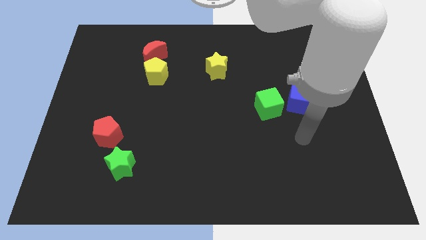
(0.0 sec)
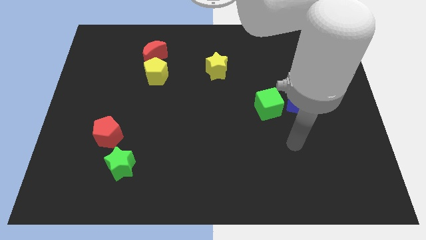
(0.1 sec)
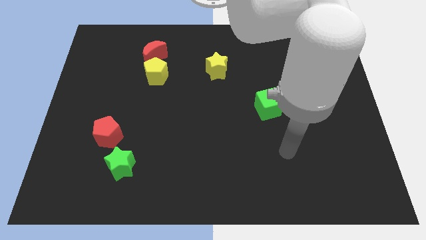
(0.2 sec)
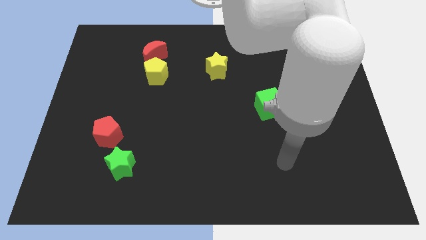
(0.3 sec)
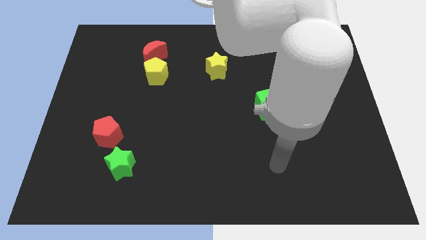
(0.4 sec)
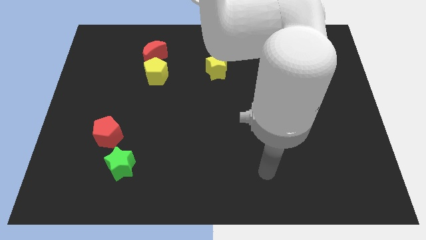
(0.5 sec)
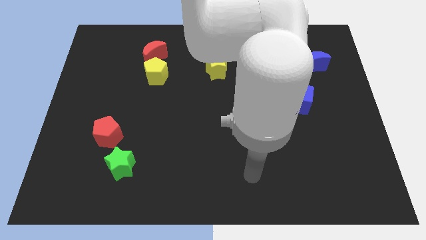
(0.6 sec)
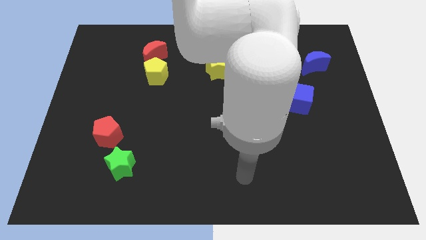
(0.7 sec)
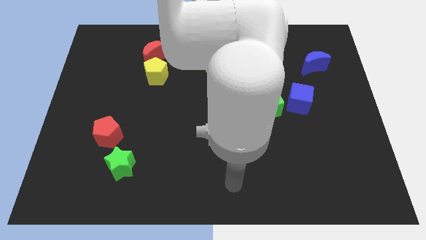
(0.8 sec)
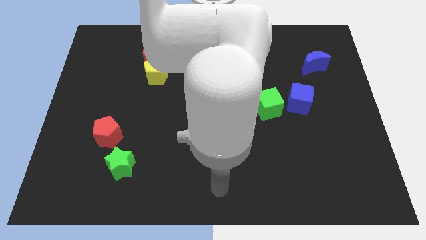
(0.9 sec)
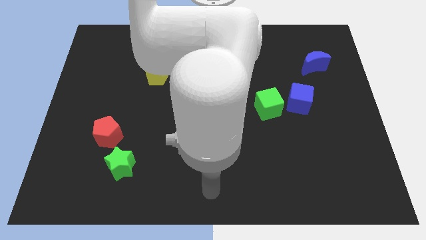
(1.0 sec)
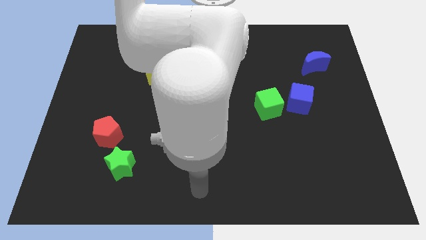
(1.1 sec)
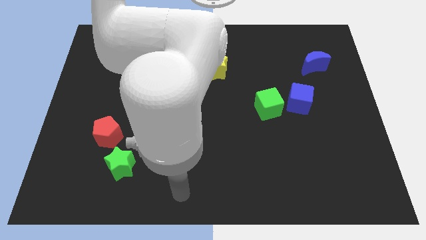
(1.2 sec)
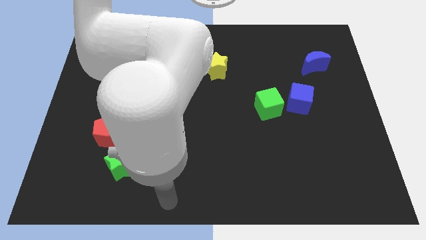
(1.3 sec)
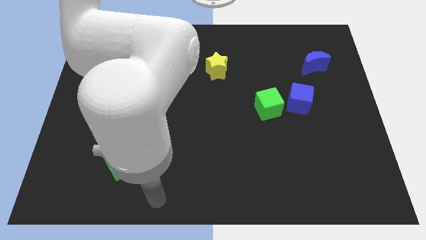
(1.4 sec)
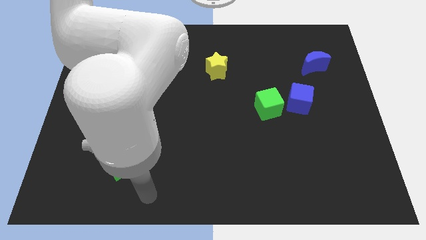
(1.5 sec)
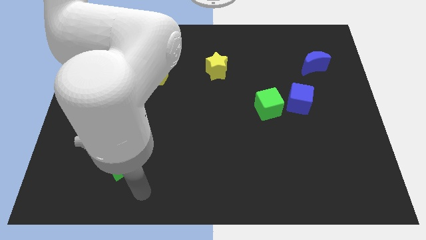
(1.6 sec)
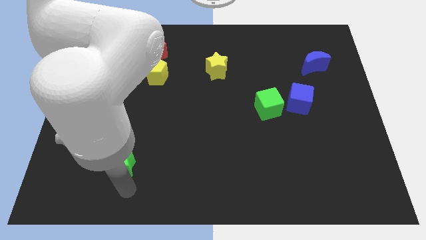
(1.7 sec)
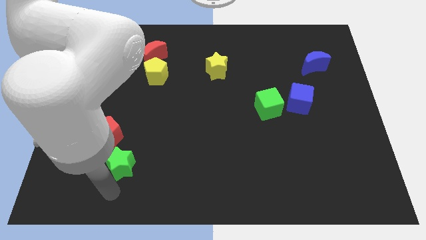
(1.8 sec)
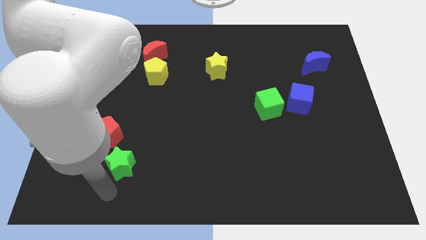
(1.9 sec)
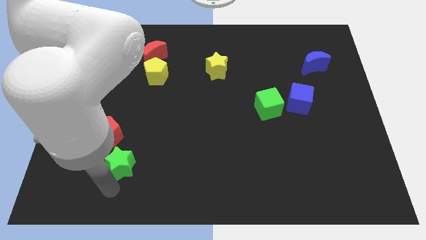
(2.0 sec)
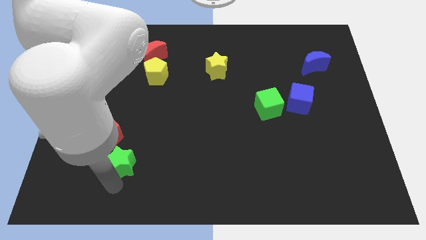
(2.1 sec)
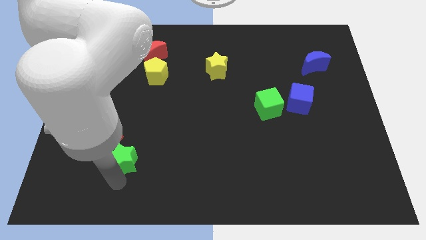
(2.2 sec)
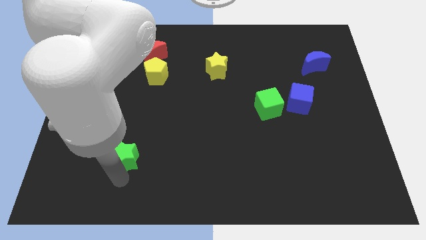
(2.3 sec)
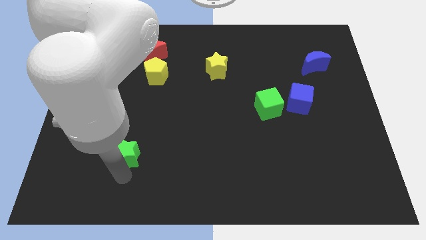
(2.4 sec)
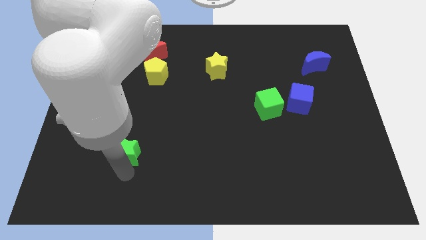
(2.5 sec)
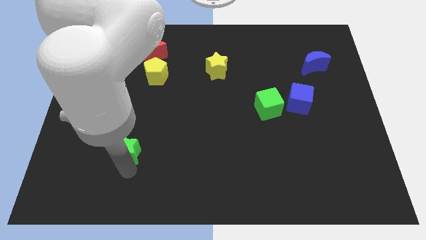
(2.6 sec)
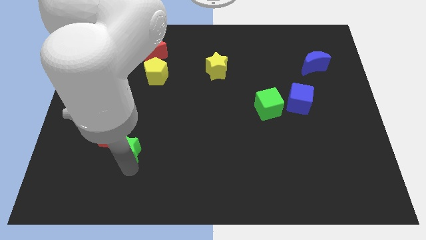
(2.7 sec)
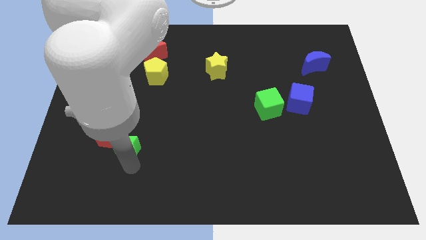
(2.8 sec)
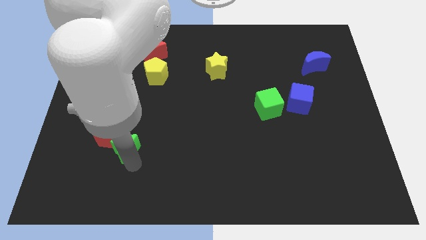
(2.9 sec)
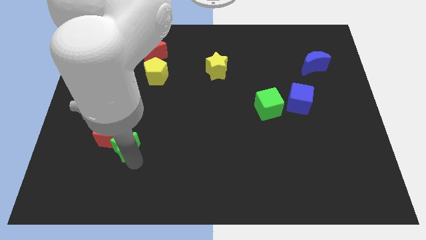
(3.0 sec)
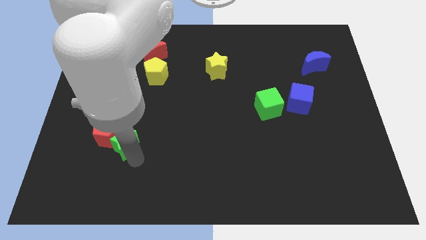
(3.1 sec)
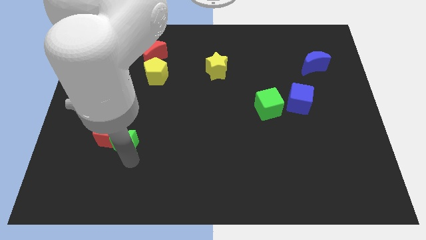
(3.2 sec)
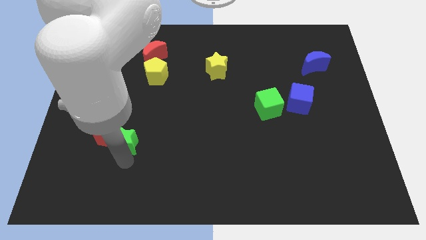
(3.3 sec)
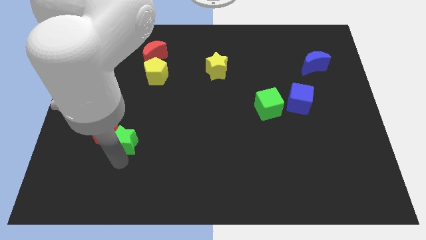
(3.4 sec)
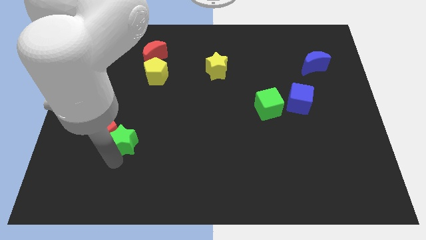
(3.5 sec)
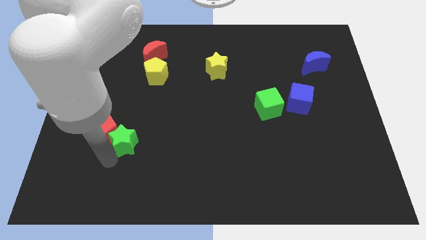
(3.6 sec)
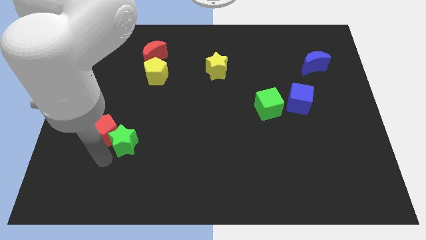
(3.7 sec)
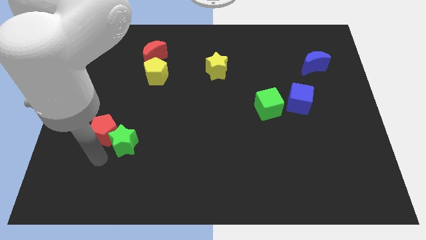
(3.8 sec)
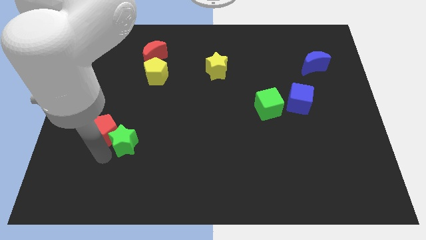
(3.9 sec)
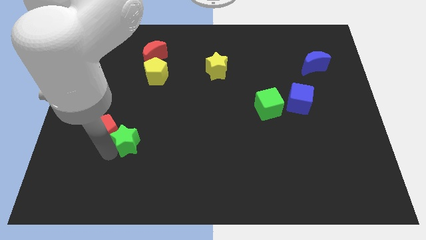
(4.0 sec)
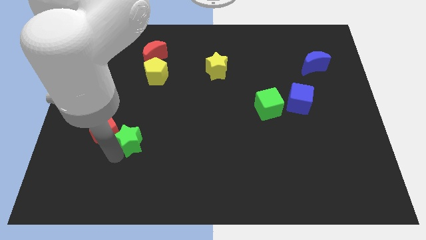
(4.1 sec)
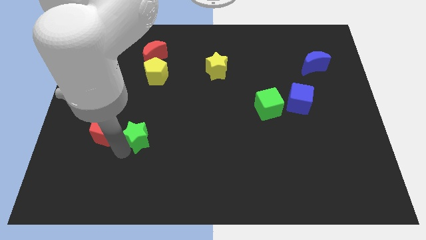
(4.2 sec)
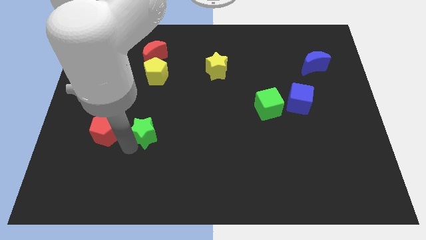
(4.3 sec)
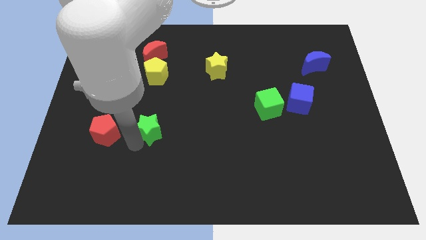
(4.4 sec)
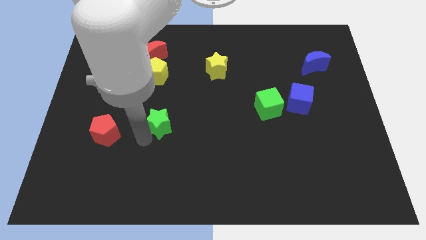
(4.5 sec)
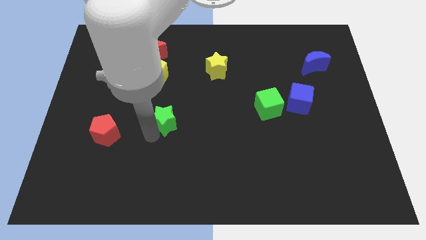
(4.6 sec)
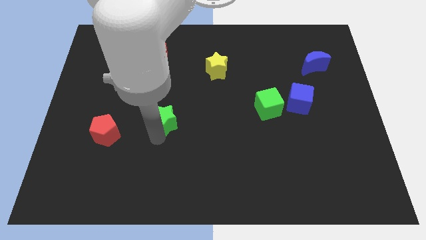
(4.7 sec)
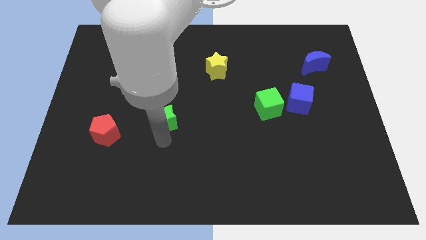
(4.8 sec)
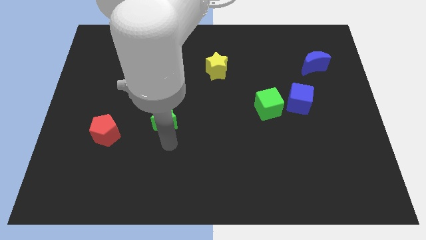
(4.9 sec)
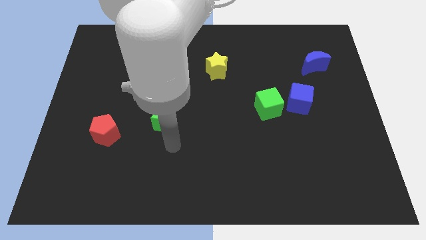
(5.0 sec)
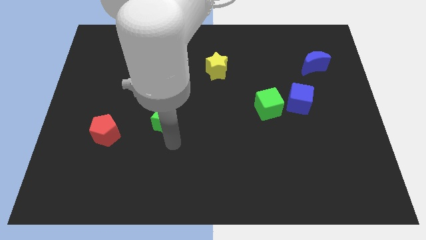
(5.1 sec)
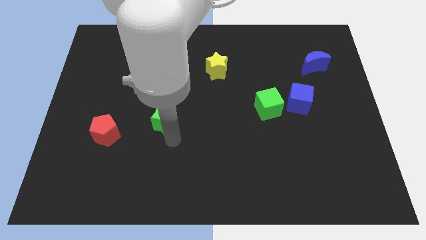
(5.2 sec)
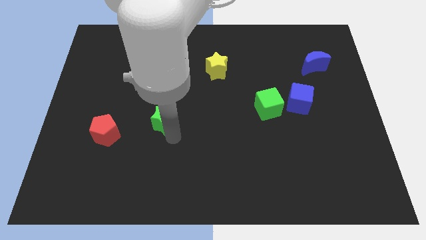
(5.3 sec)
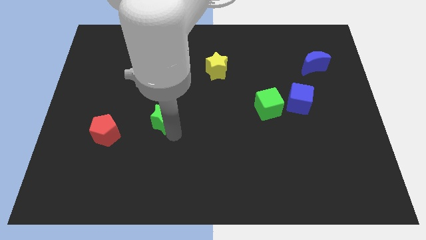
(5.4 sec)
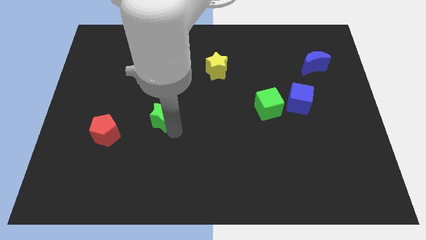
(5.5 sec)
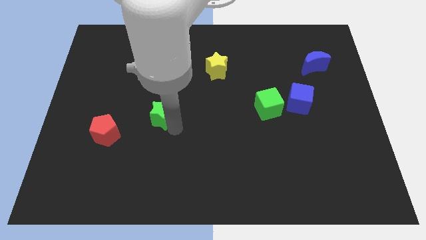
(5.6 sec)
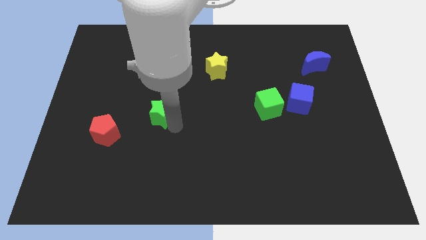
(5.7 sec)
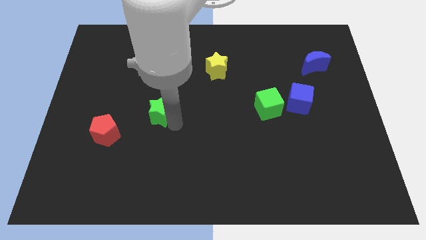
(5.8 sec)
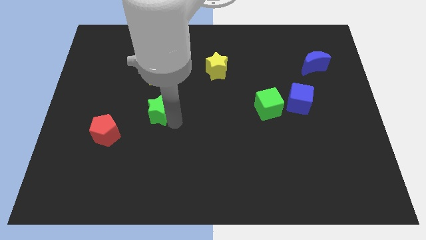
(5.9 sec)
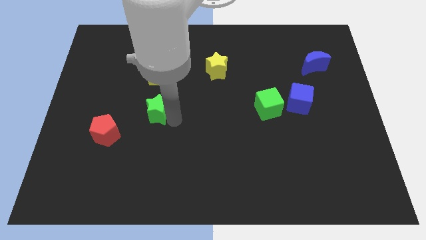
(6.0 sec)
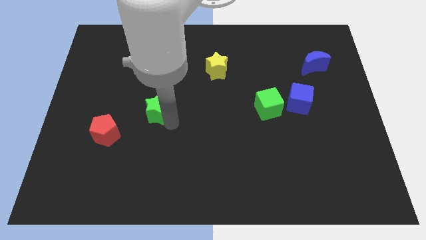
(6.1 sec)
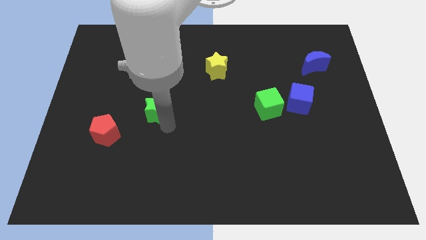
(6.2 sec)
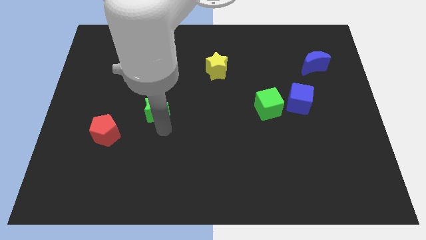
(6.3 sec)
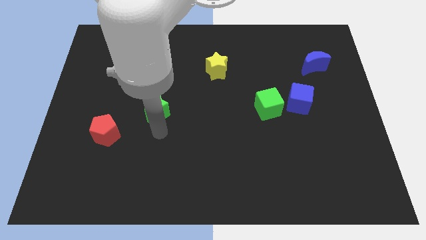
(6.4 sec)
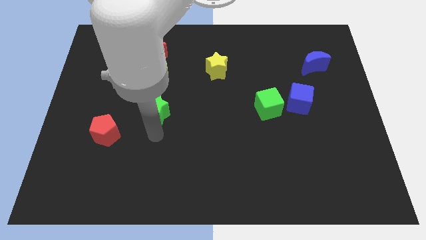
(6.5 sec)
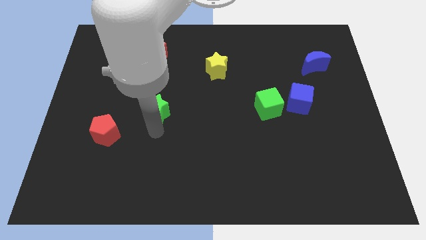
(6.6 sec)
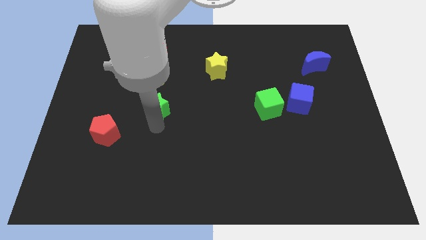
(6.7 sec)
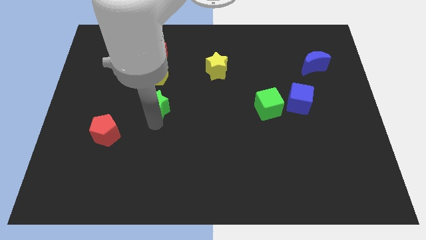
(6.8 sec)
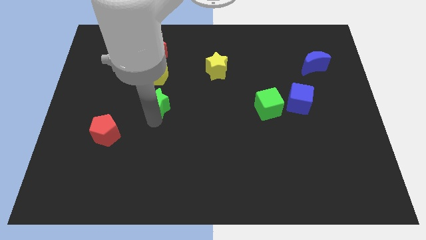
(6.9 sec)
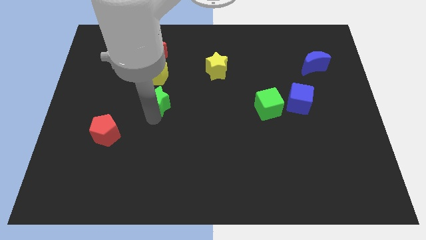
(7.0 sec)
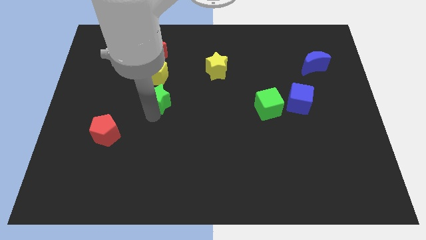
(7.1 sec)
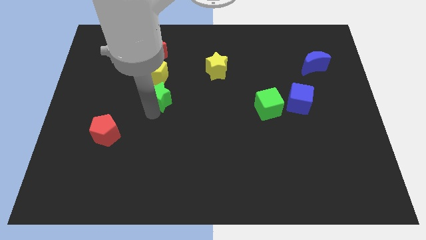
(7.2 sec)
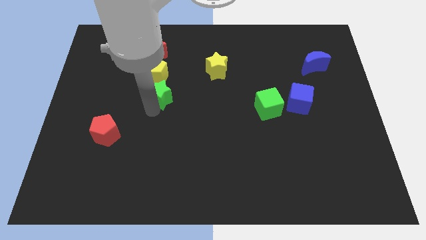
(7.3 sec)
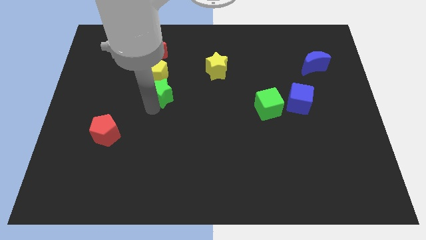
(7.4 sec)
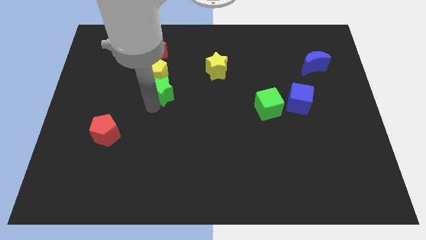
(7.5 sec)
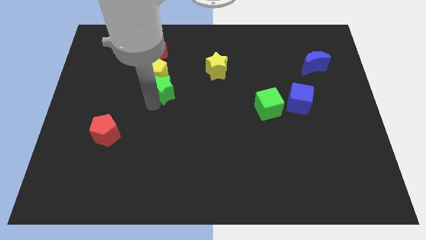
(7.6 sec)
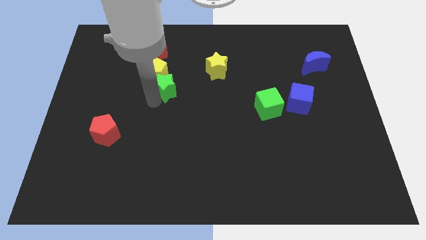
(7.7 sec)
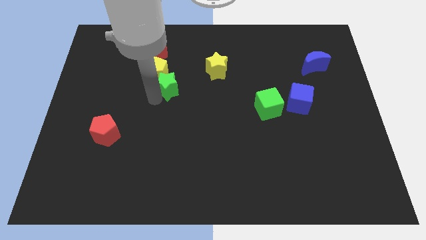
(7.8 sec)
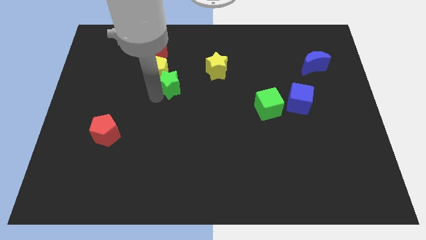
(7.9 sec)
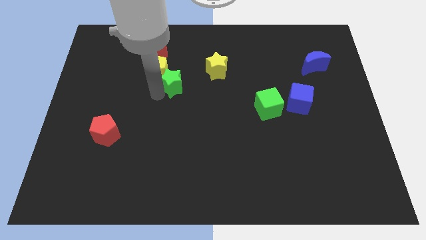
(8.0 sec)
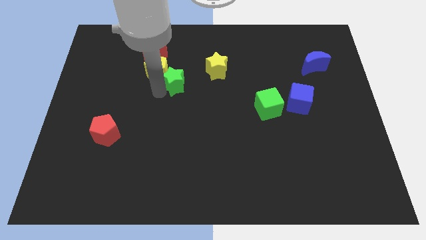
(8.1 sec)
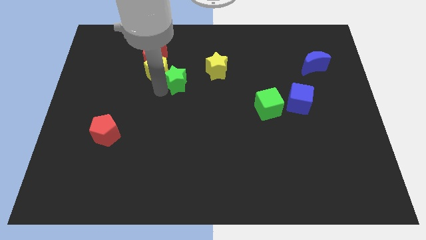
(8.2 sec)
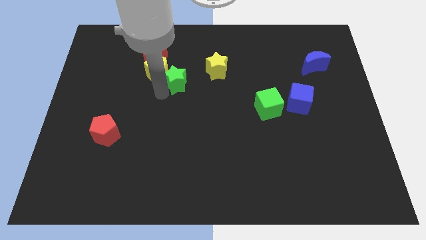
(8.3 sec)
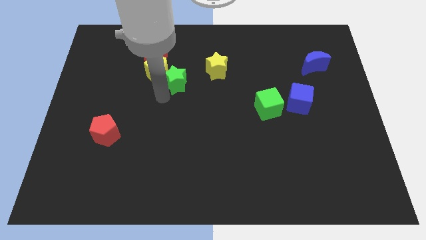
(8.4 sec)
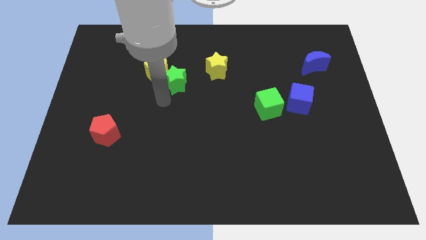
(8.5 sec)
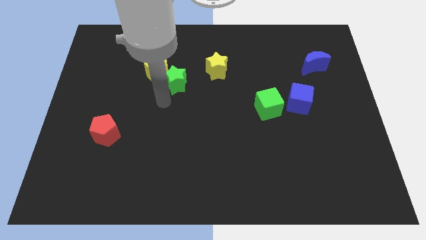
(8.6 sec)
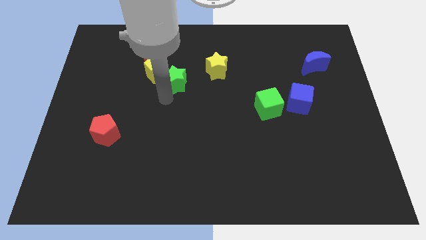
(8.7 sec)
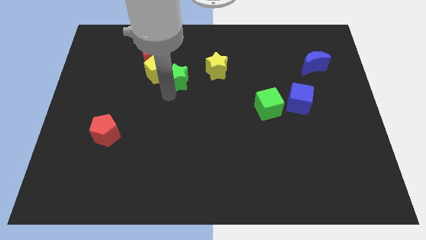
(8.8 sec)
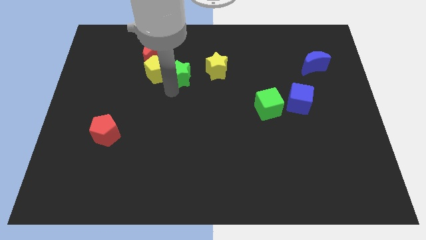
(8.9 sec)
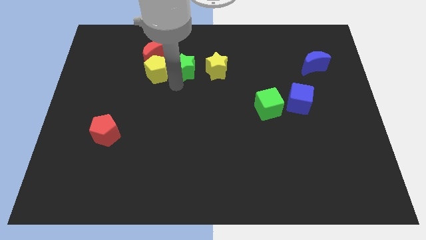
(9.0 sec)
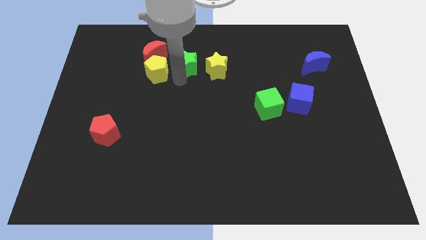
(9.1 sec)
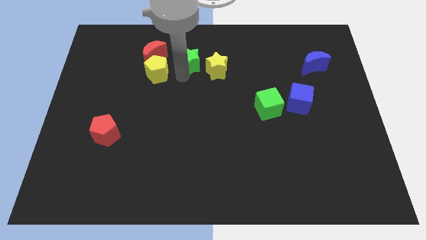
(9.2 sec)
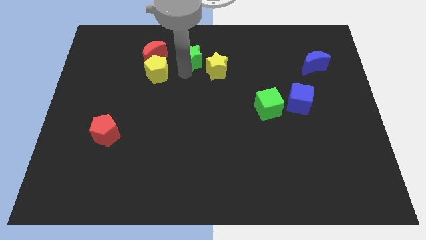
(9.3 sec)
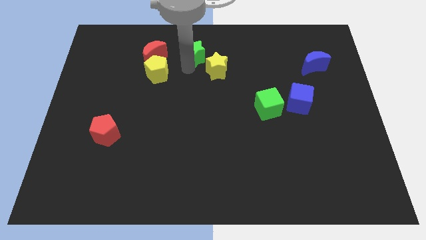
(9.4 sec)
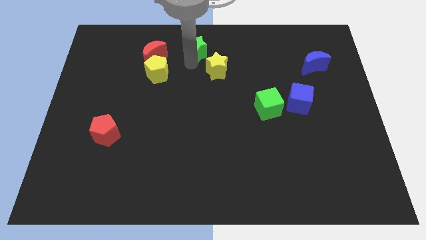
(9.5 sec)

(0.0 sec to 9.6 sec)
push the green star to the top side
